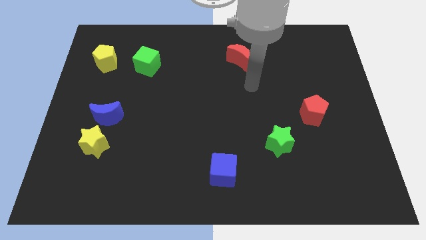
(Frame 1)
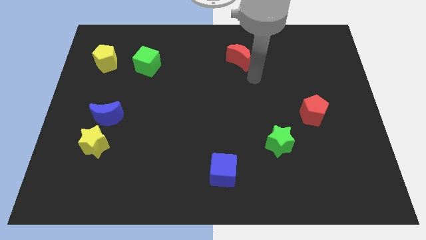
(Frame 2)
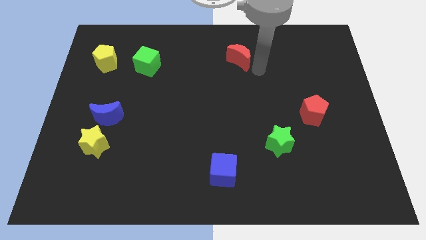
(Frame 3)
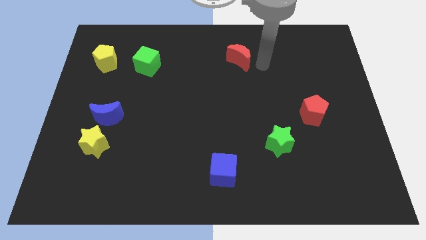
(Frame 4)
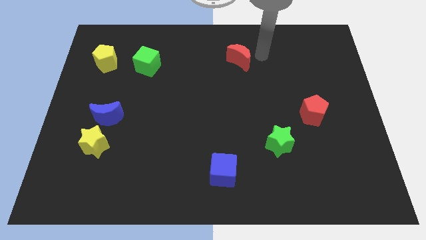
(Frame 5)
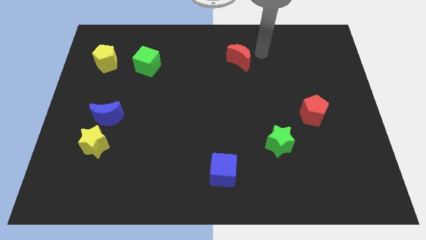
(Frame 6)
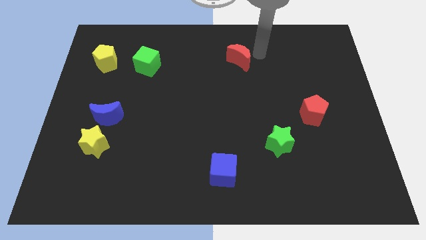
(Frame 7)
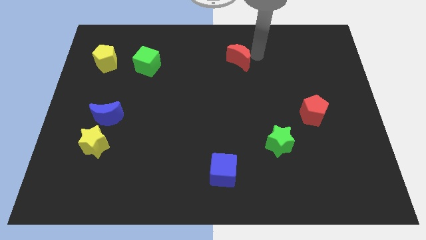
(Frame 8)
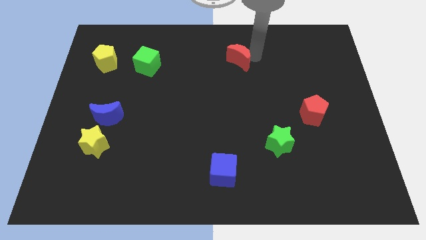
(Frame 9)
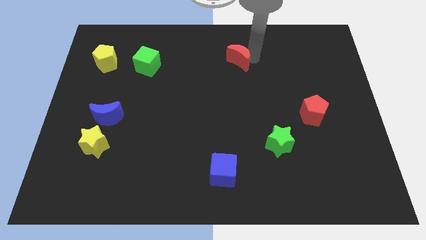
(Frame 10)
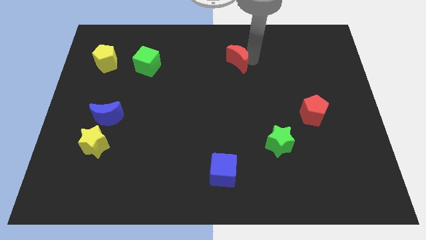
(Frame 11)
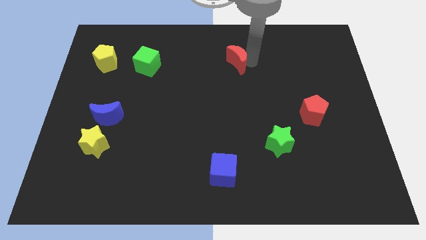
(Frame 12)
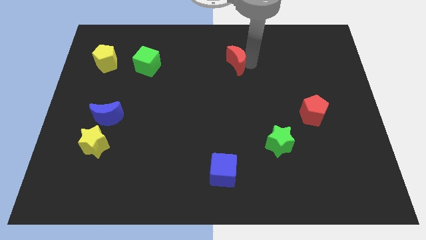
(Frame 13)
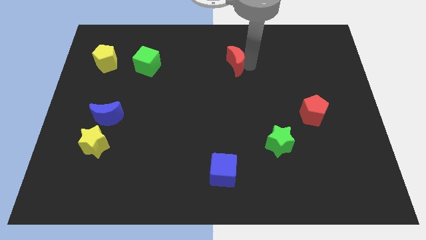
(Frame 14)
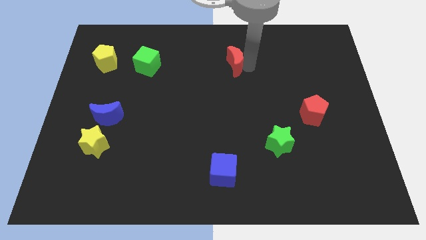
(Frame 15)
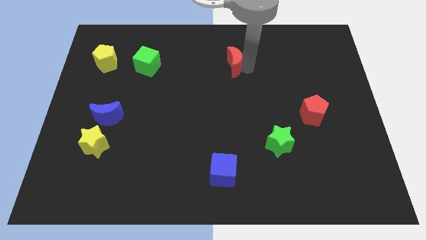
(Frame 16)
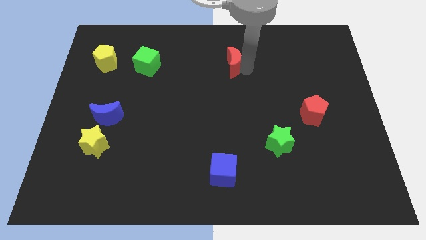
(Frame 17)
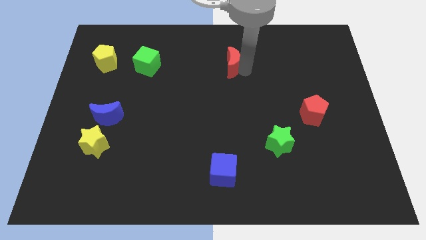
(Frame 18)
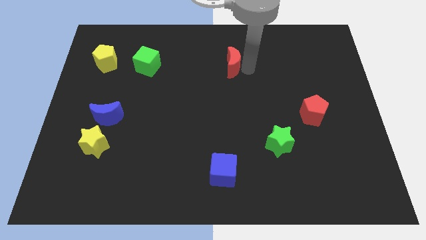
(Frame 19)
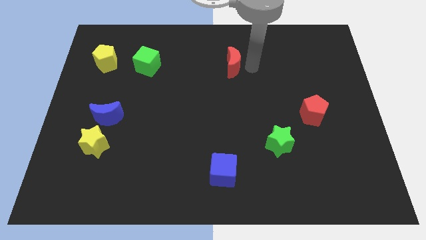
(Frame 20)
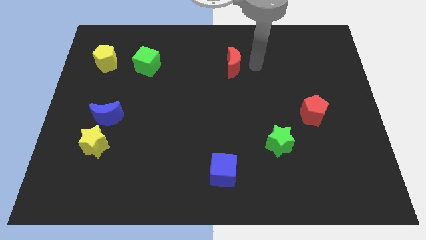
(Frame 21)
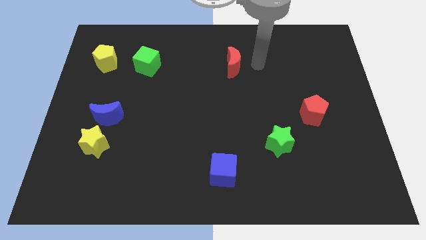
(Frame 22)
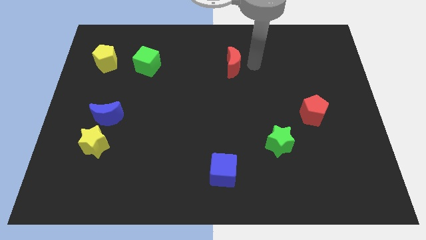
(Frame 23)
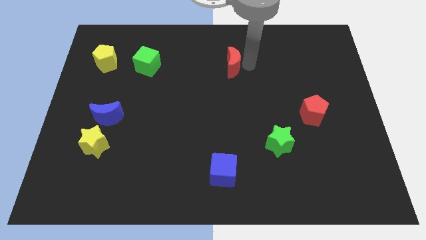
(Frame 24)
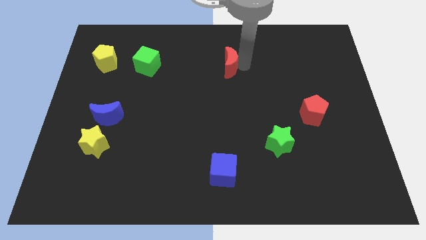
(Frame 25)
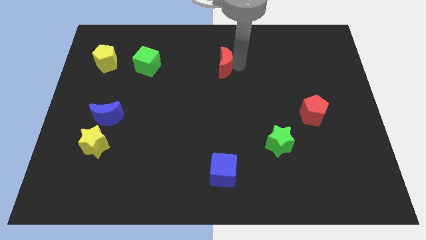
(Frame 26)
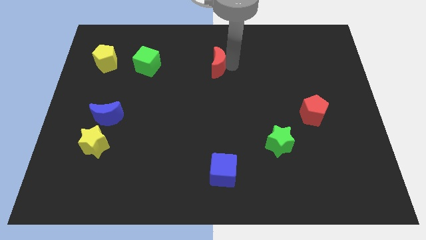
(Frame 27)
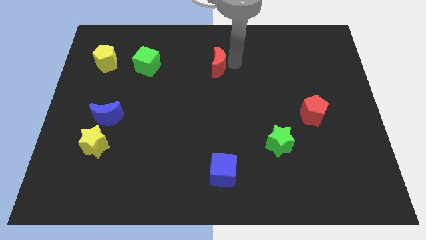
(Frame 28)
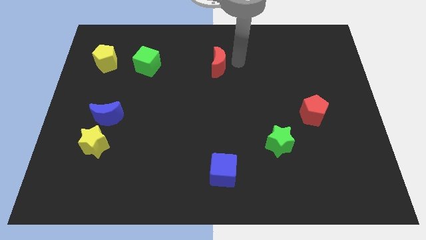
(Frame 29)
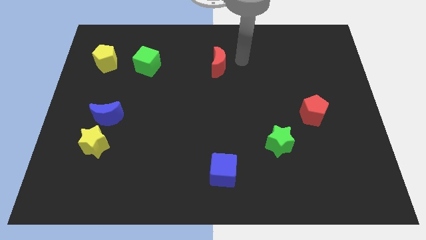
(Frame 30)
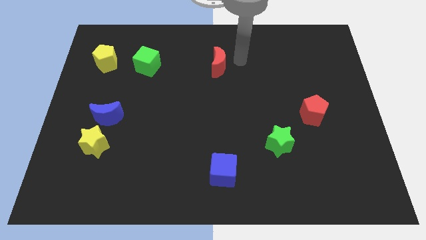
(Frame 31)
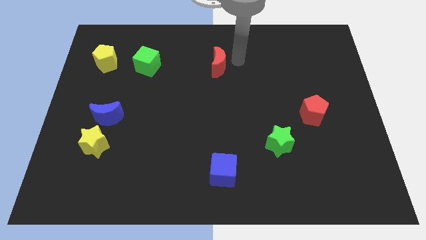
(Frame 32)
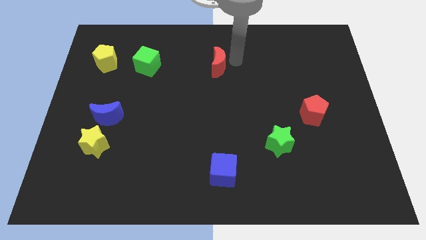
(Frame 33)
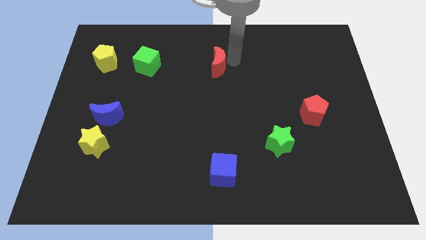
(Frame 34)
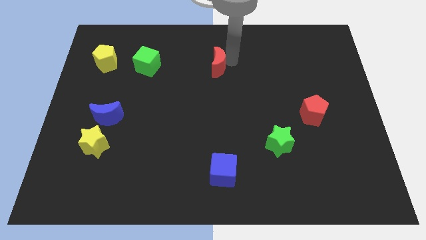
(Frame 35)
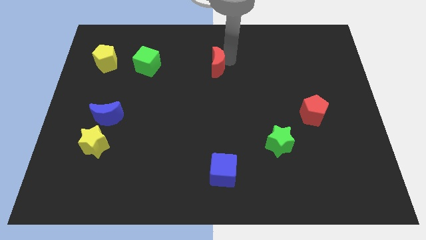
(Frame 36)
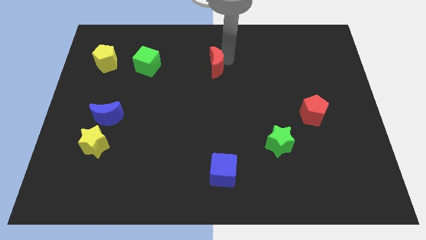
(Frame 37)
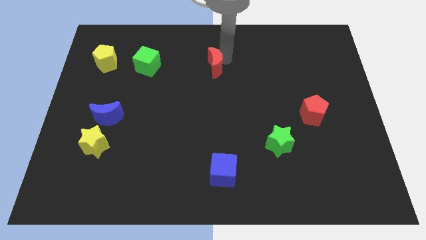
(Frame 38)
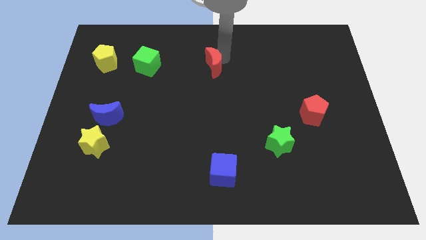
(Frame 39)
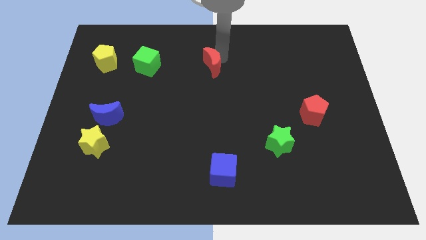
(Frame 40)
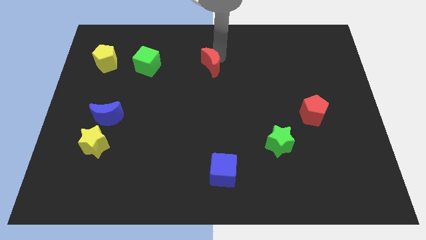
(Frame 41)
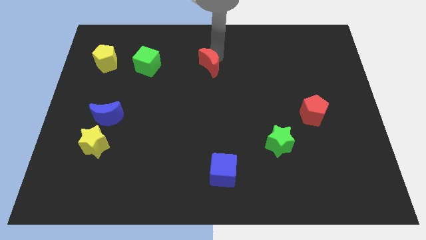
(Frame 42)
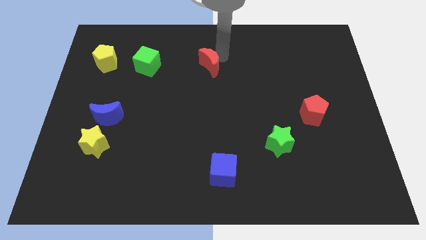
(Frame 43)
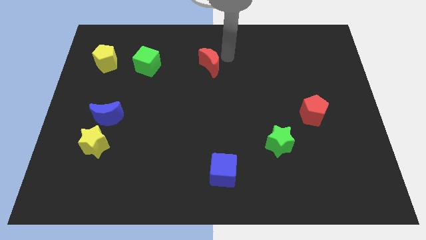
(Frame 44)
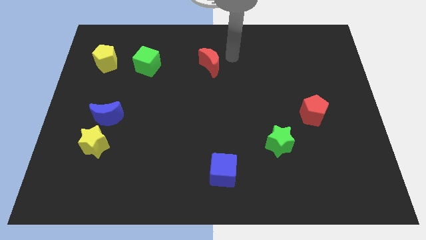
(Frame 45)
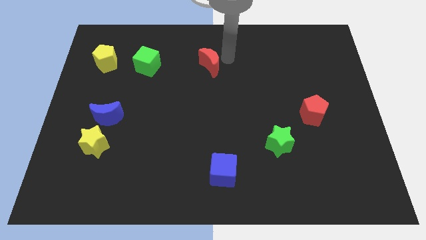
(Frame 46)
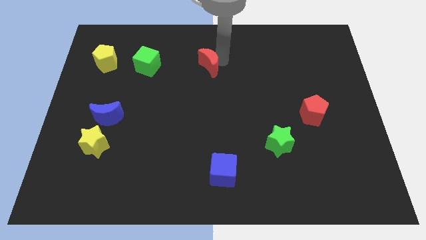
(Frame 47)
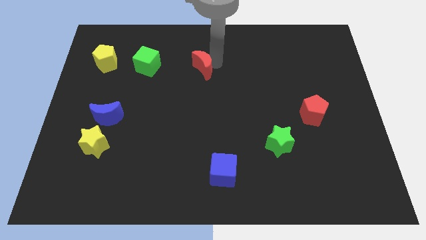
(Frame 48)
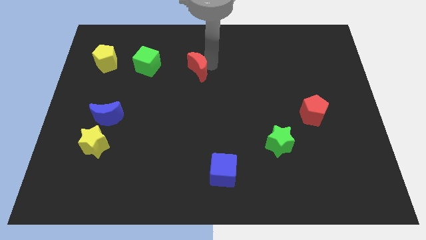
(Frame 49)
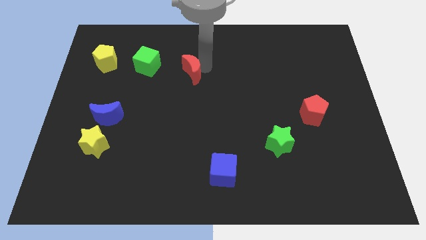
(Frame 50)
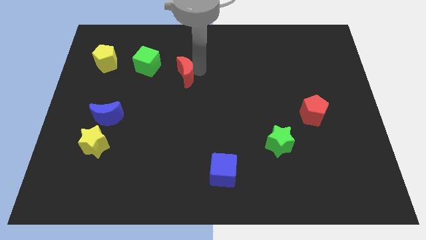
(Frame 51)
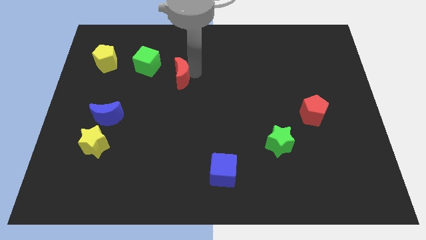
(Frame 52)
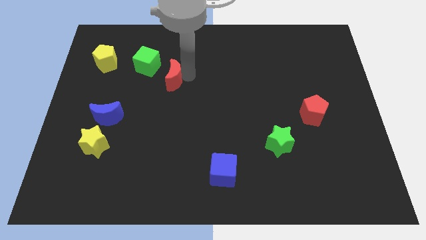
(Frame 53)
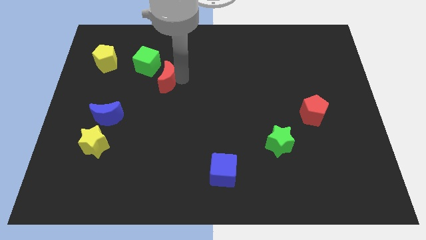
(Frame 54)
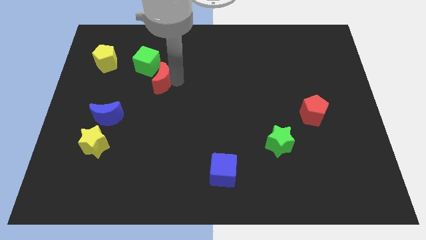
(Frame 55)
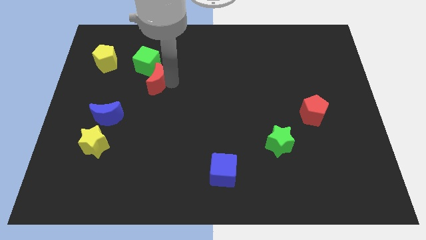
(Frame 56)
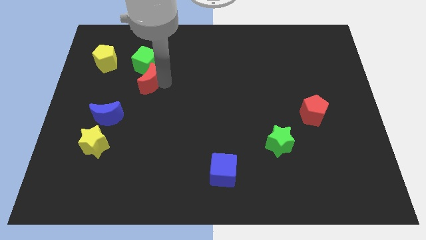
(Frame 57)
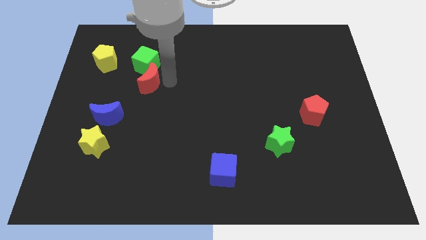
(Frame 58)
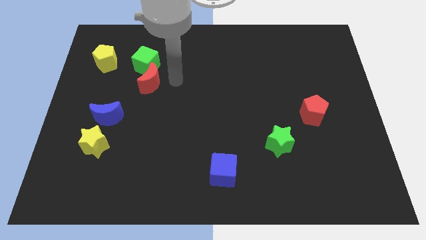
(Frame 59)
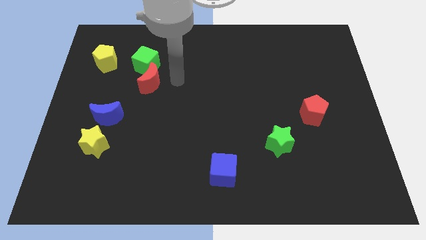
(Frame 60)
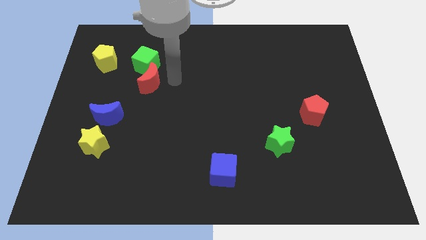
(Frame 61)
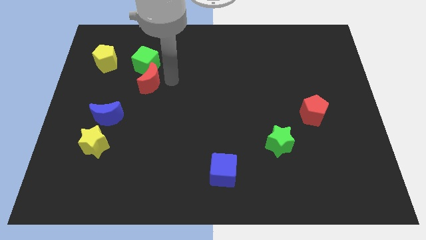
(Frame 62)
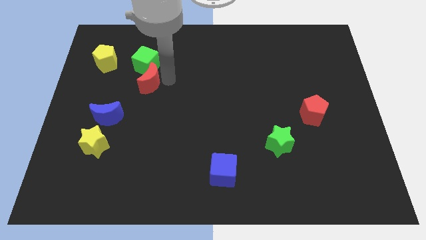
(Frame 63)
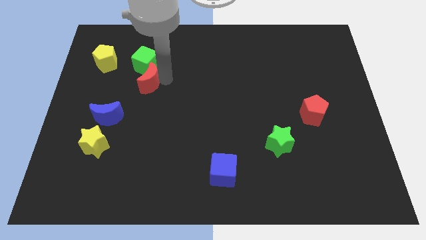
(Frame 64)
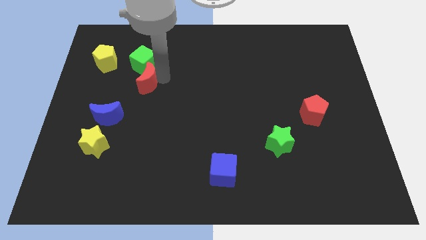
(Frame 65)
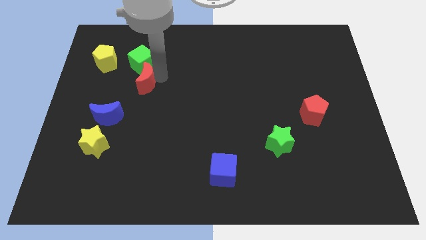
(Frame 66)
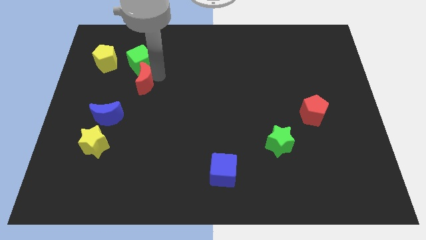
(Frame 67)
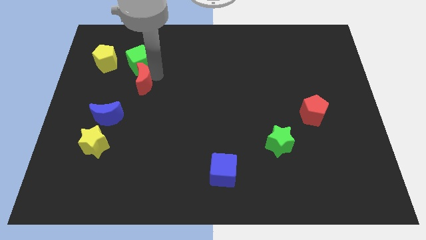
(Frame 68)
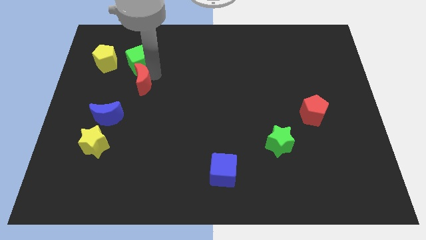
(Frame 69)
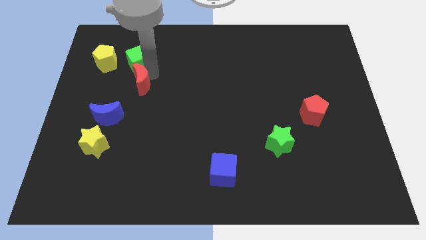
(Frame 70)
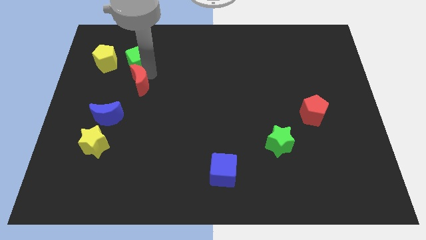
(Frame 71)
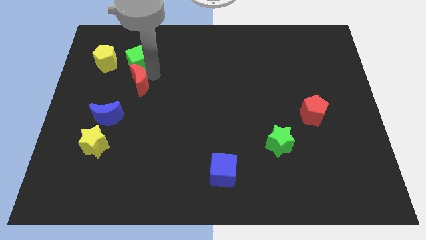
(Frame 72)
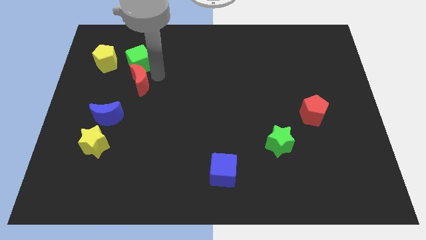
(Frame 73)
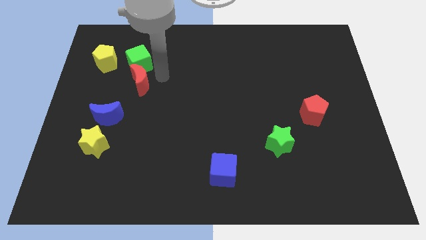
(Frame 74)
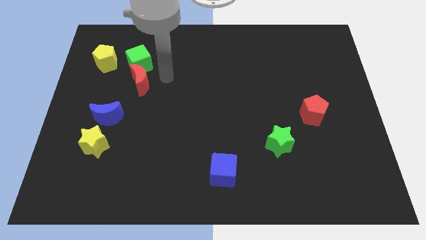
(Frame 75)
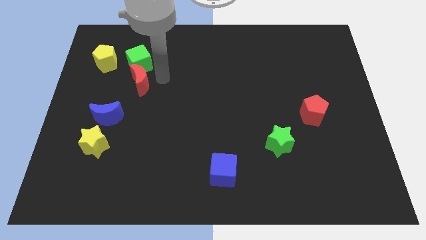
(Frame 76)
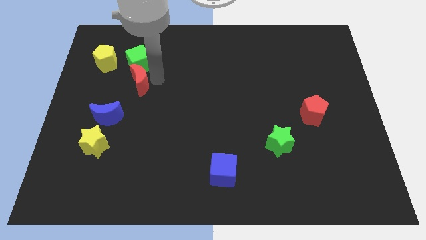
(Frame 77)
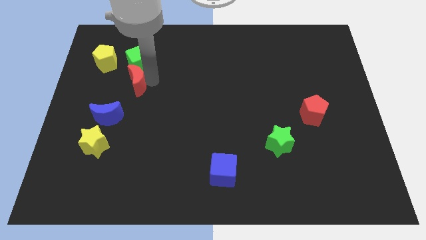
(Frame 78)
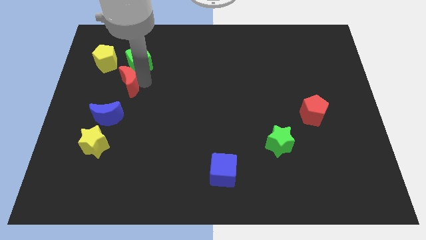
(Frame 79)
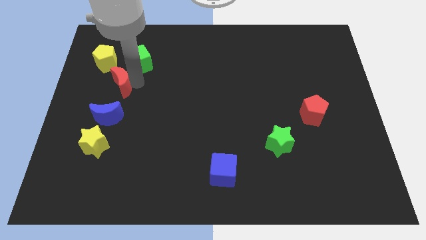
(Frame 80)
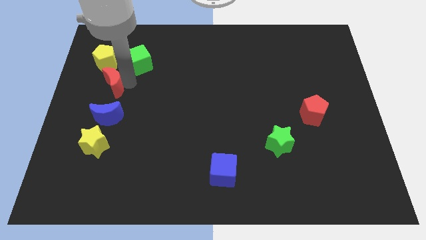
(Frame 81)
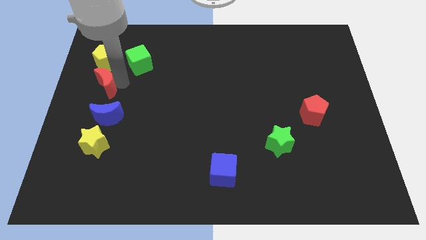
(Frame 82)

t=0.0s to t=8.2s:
put the red moon to the center left
